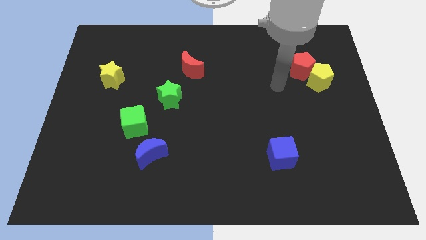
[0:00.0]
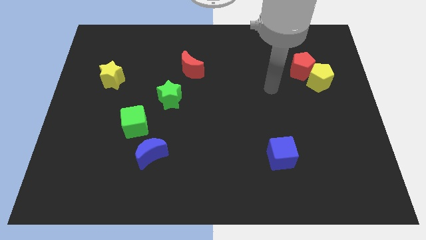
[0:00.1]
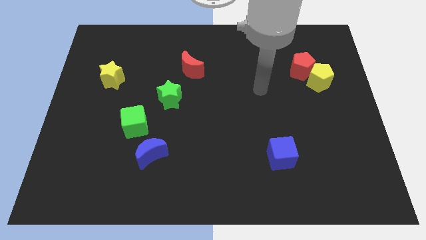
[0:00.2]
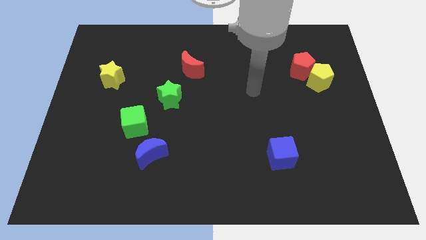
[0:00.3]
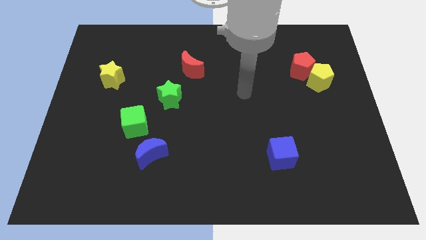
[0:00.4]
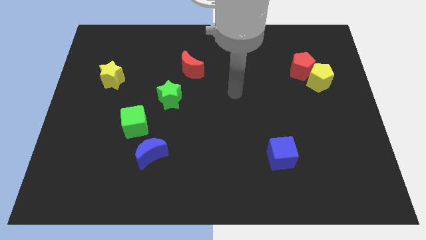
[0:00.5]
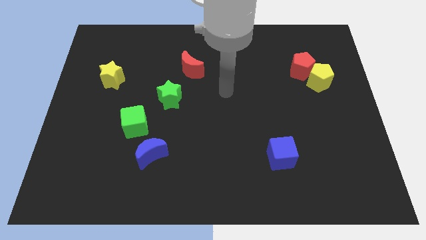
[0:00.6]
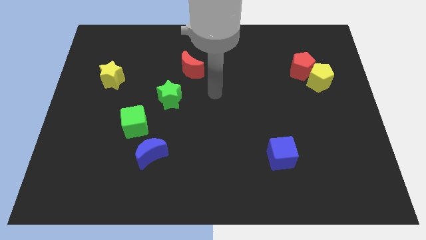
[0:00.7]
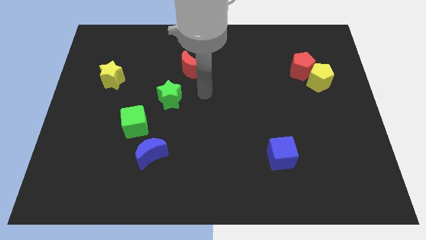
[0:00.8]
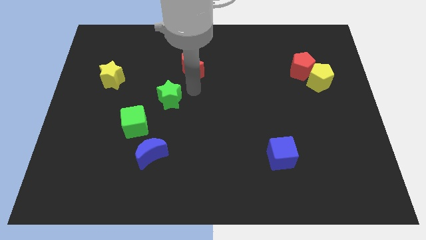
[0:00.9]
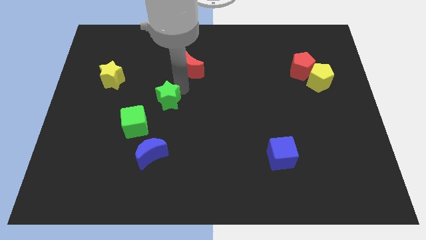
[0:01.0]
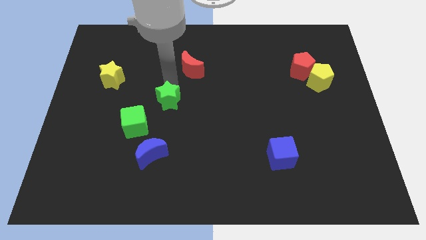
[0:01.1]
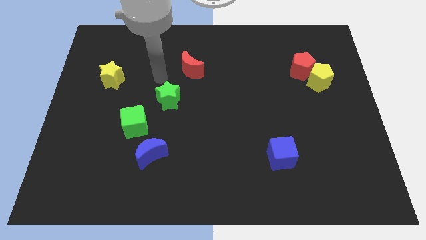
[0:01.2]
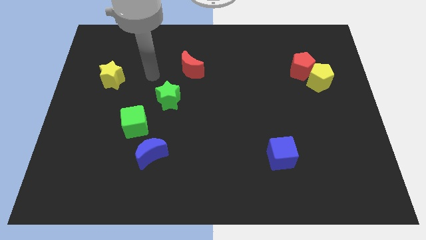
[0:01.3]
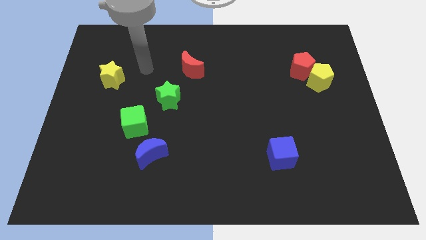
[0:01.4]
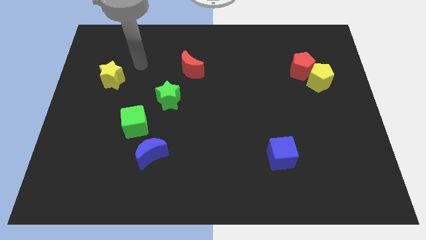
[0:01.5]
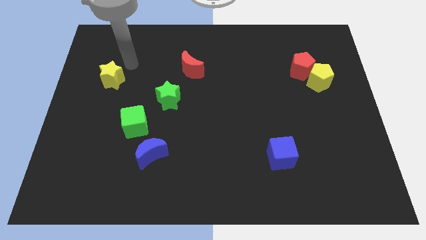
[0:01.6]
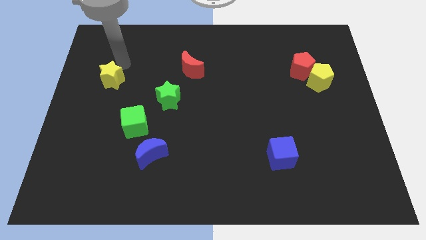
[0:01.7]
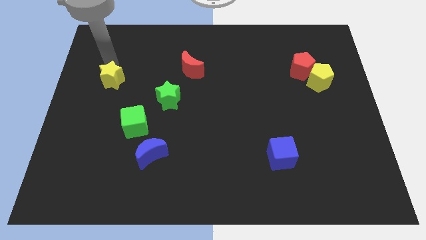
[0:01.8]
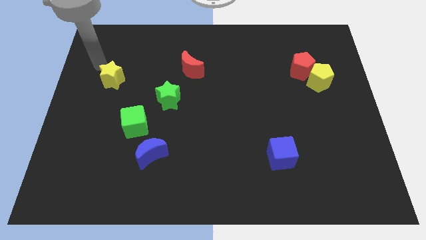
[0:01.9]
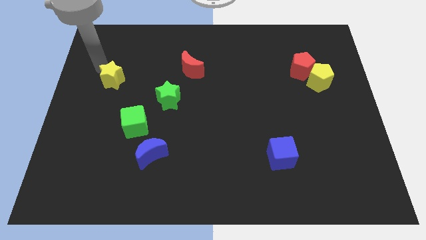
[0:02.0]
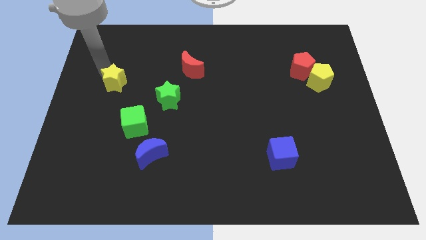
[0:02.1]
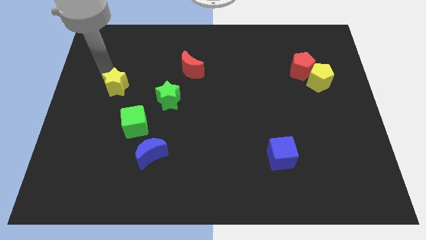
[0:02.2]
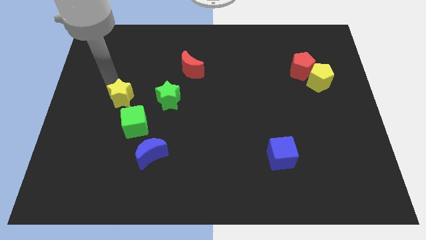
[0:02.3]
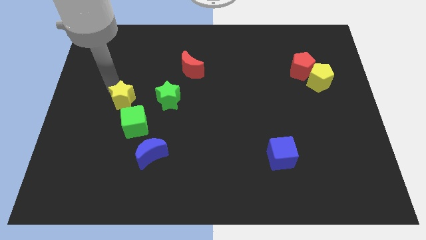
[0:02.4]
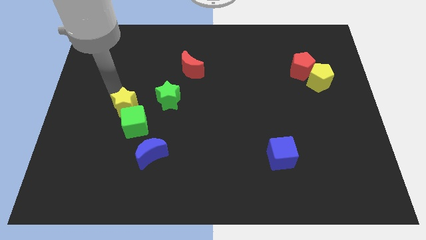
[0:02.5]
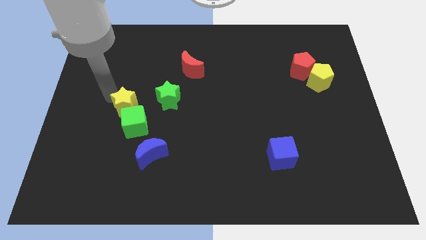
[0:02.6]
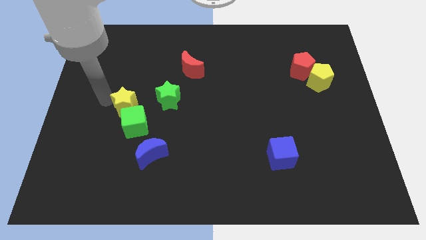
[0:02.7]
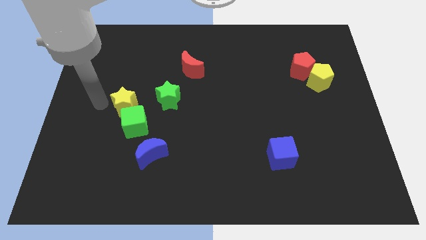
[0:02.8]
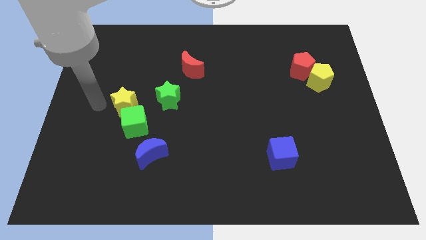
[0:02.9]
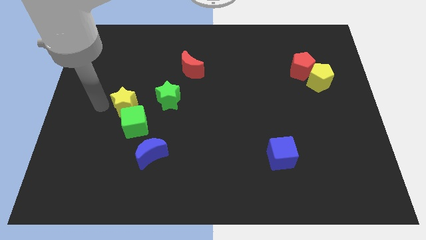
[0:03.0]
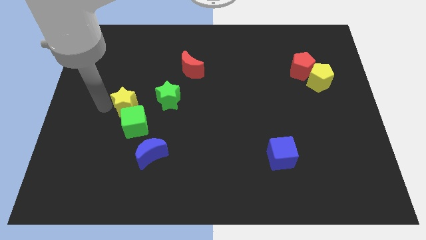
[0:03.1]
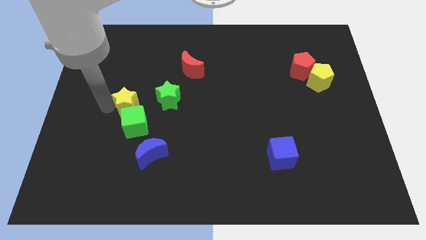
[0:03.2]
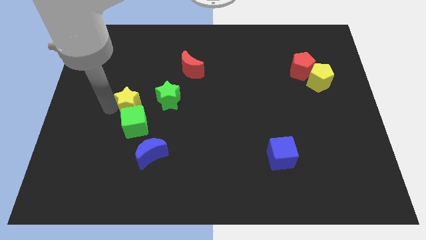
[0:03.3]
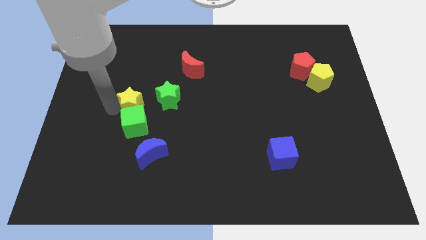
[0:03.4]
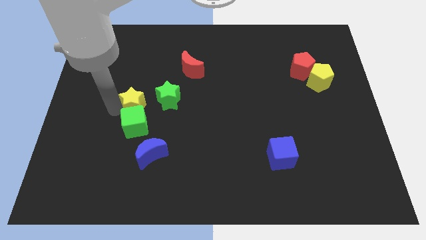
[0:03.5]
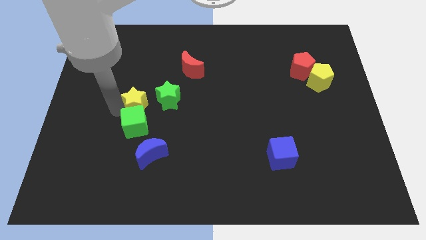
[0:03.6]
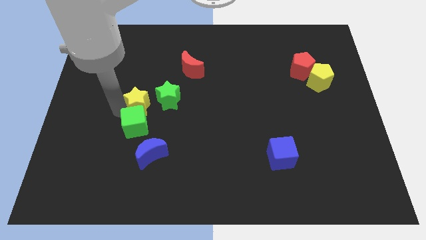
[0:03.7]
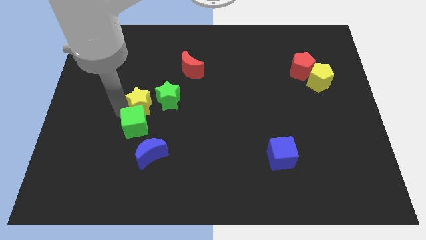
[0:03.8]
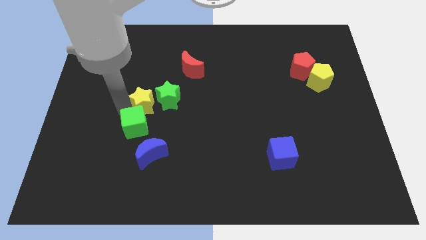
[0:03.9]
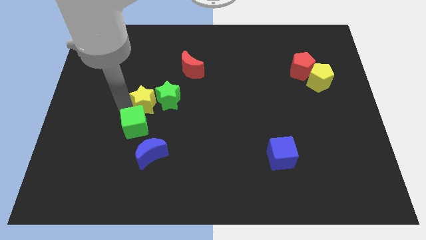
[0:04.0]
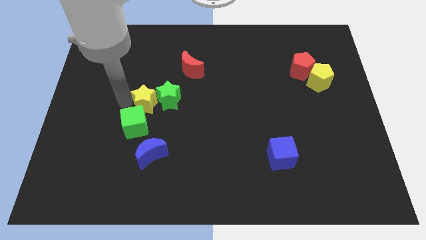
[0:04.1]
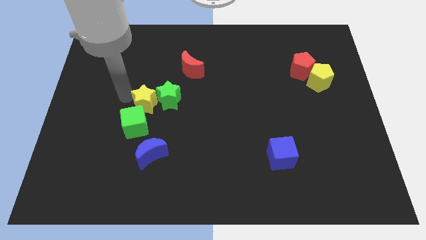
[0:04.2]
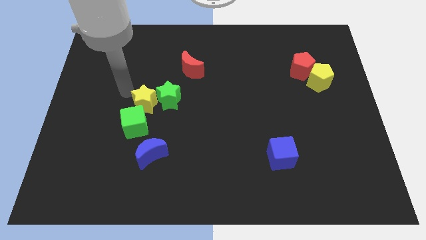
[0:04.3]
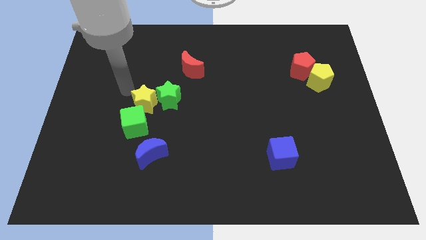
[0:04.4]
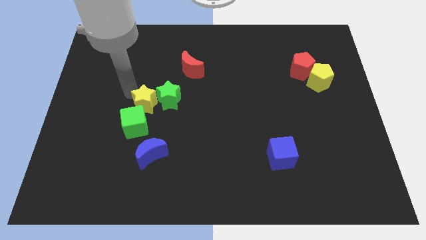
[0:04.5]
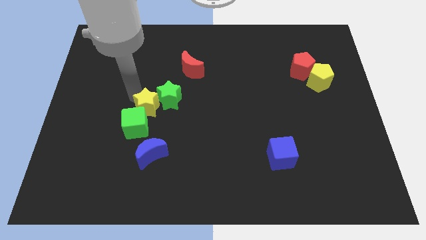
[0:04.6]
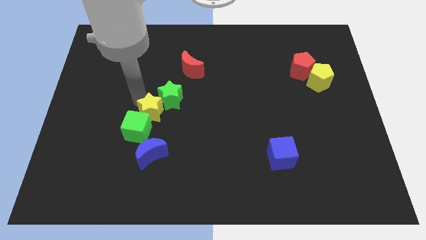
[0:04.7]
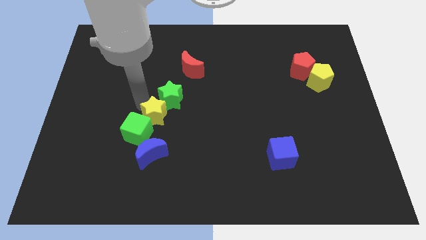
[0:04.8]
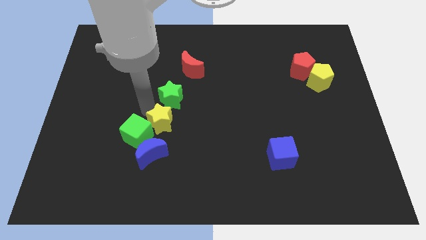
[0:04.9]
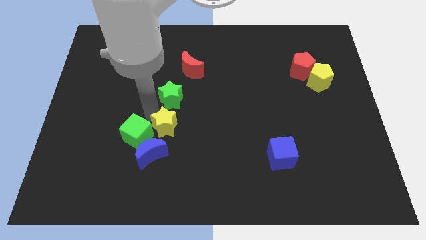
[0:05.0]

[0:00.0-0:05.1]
slide the yellow star downwards and then to the right

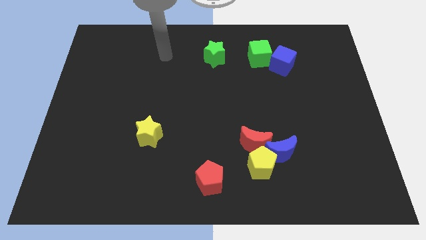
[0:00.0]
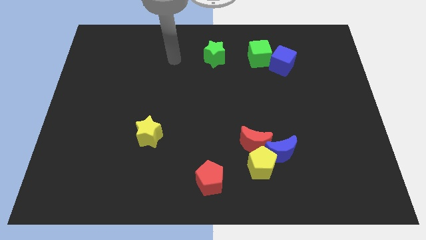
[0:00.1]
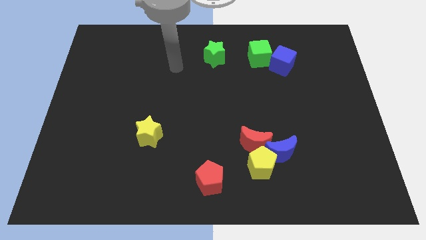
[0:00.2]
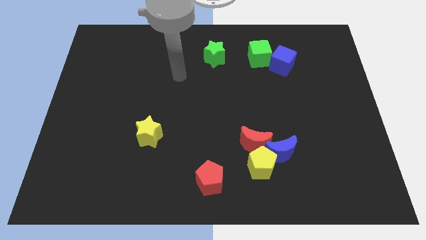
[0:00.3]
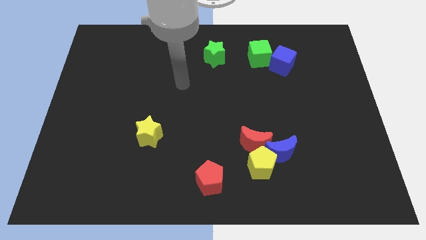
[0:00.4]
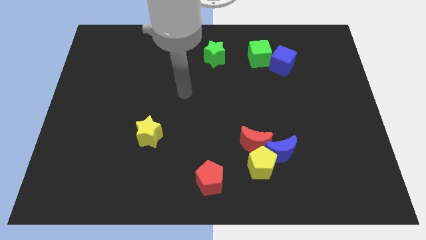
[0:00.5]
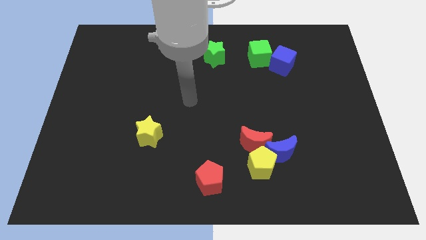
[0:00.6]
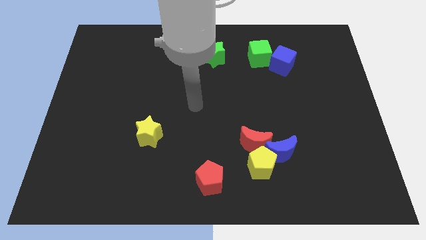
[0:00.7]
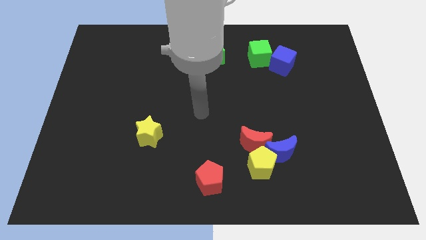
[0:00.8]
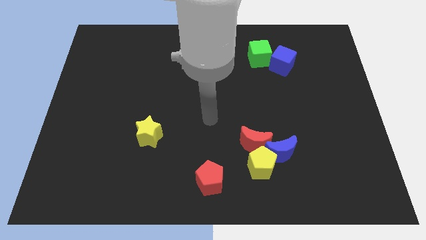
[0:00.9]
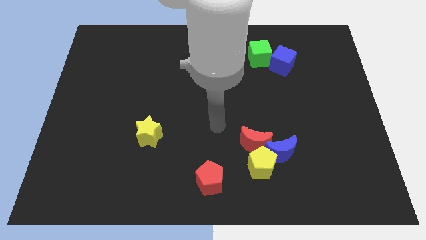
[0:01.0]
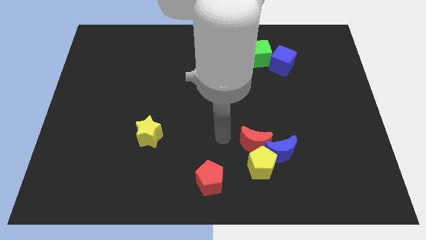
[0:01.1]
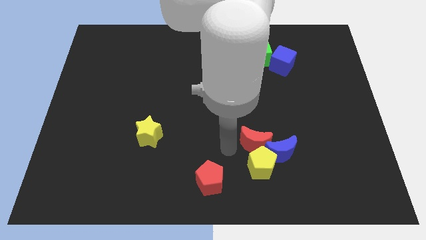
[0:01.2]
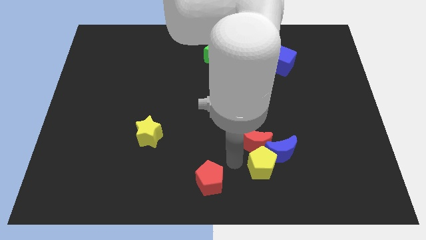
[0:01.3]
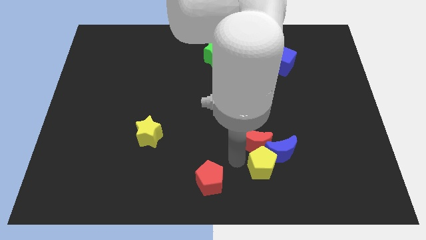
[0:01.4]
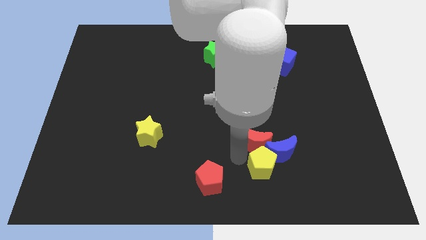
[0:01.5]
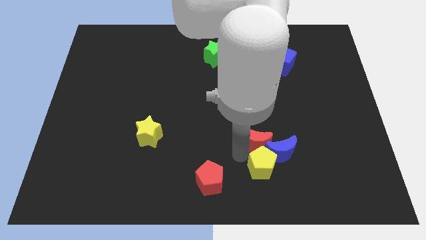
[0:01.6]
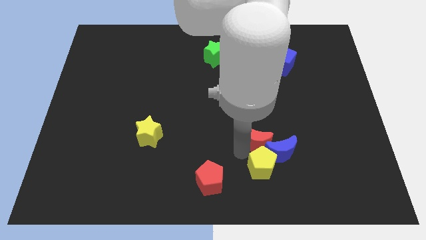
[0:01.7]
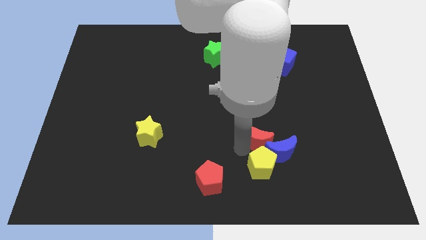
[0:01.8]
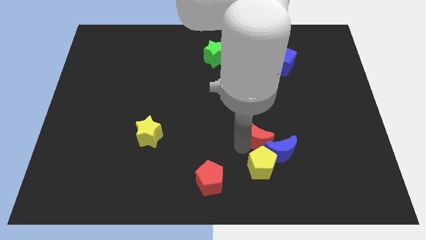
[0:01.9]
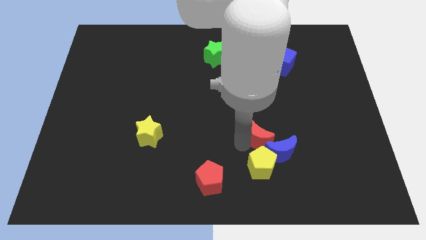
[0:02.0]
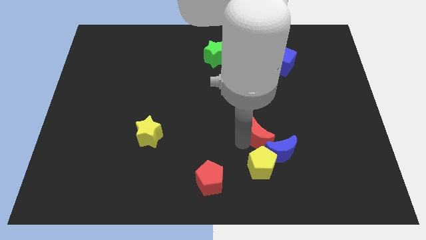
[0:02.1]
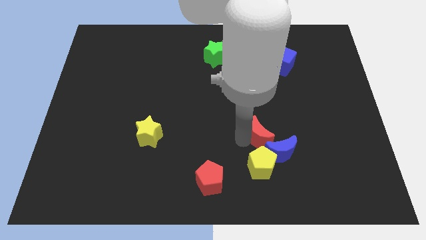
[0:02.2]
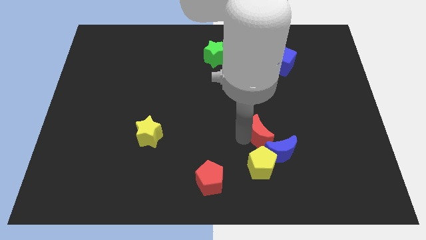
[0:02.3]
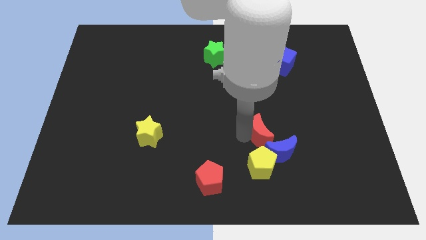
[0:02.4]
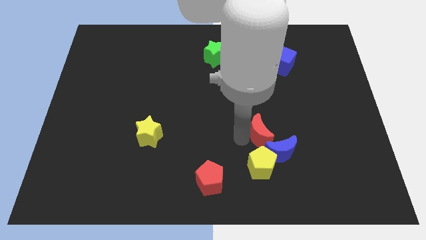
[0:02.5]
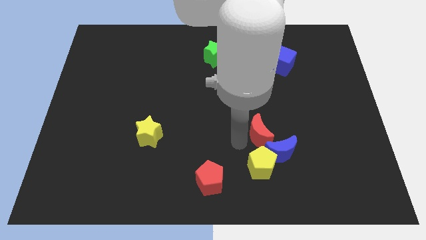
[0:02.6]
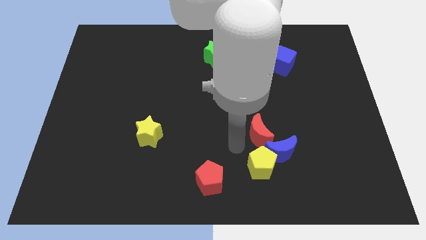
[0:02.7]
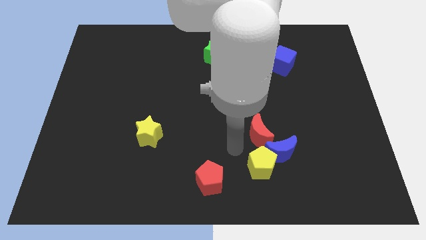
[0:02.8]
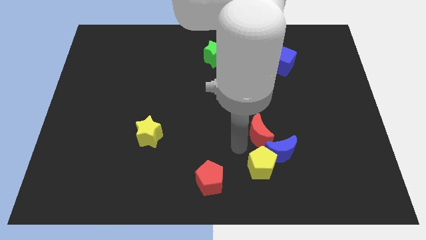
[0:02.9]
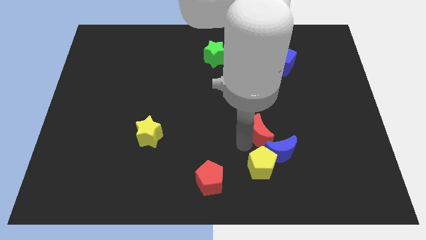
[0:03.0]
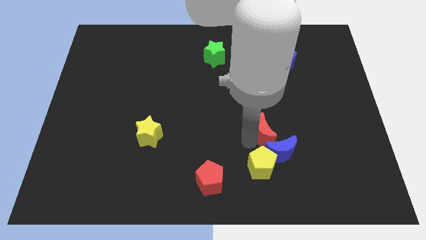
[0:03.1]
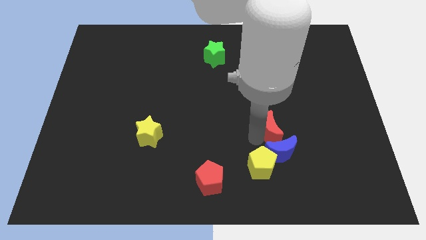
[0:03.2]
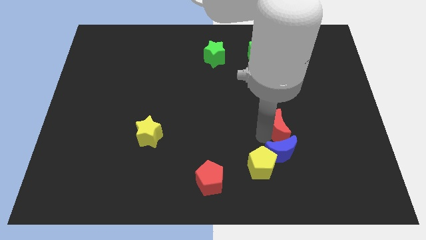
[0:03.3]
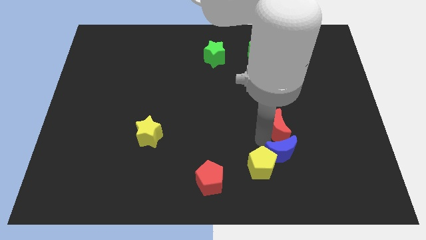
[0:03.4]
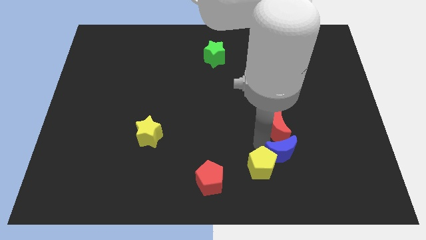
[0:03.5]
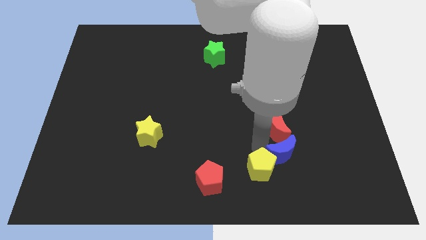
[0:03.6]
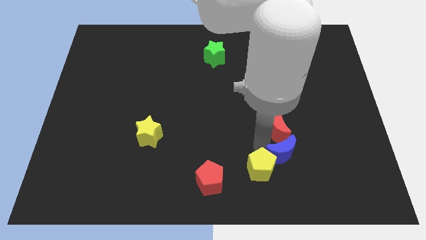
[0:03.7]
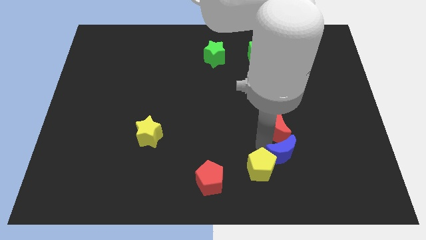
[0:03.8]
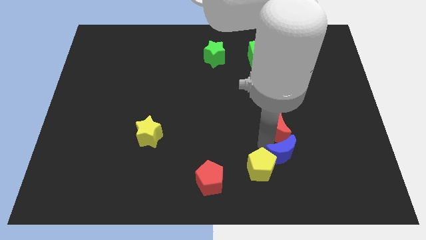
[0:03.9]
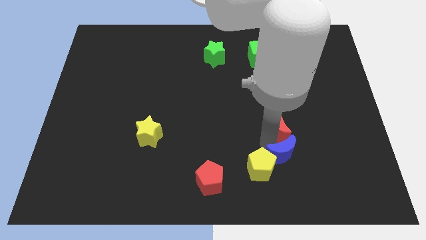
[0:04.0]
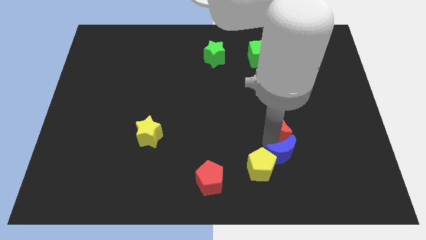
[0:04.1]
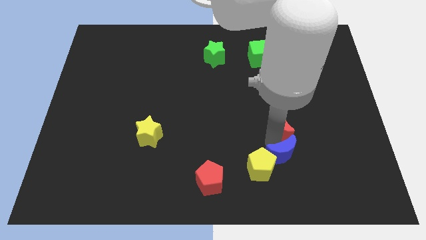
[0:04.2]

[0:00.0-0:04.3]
move the red moon upwards and right a little bit
